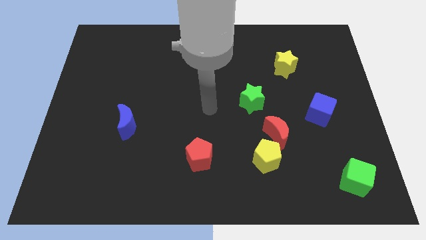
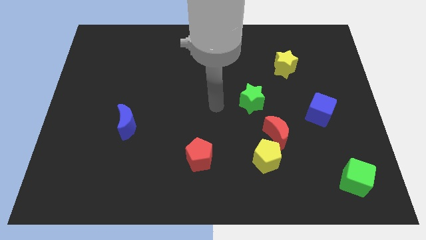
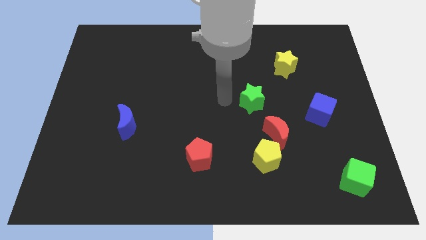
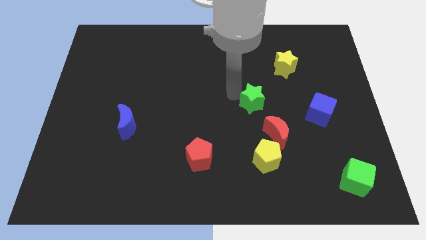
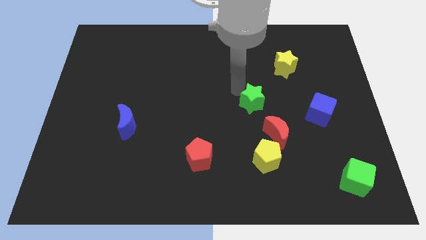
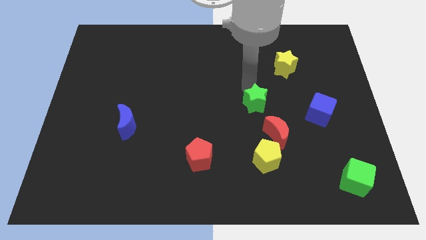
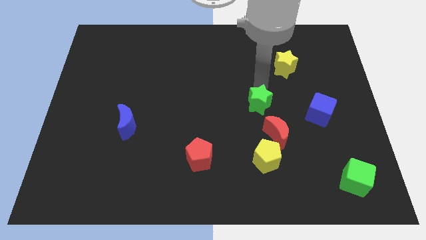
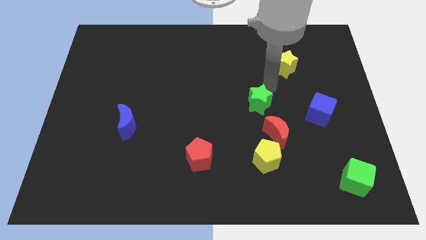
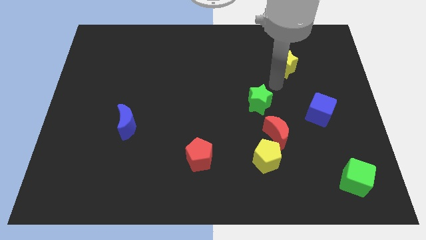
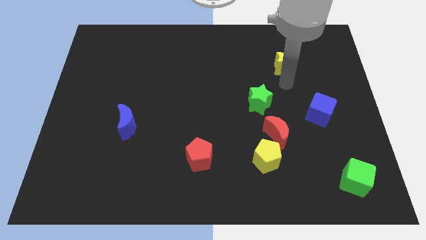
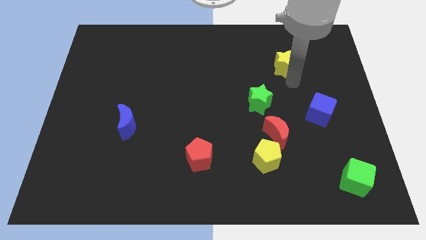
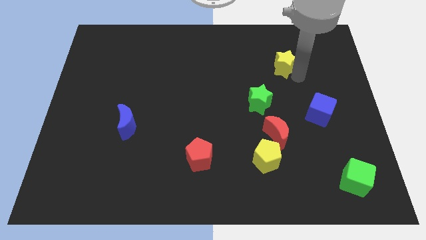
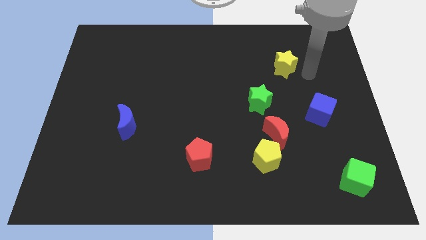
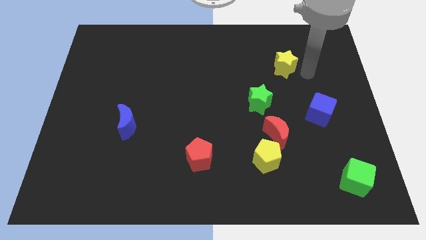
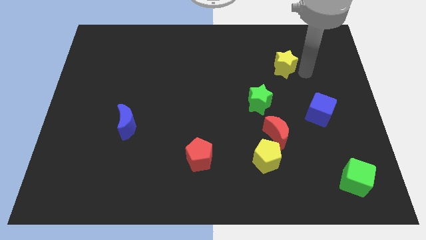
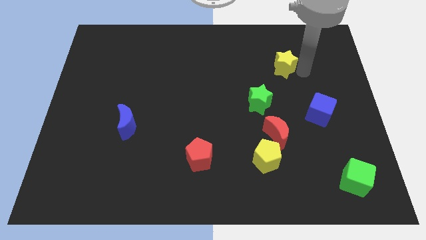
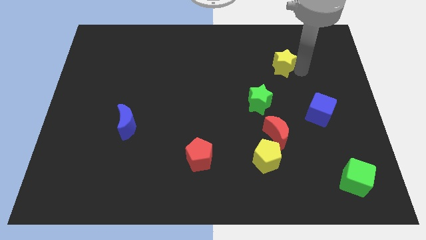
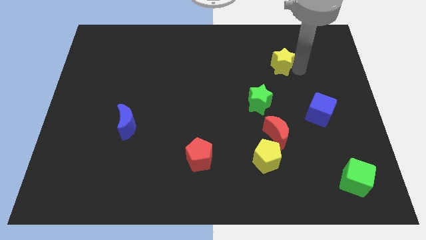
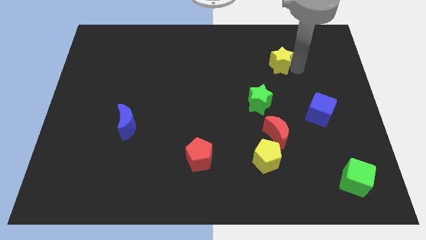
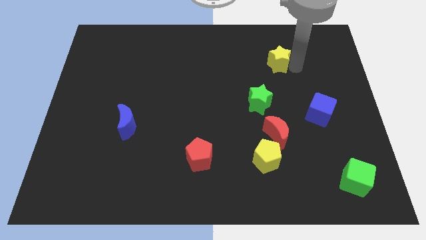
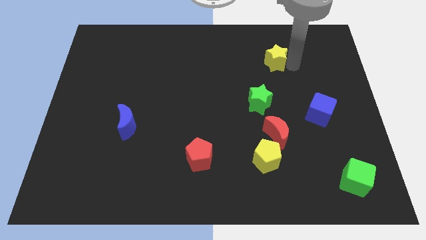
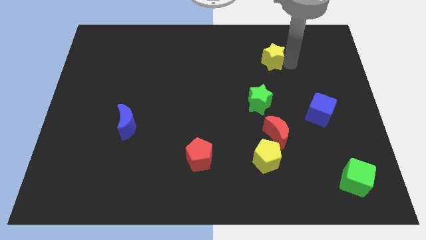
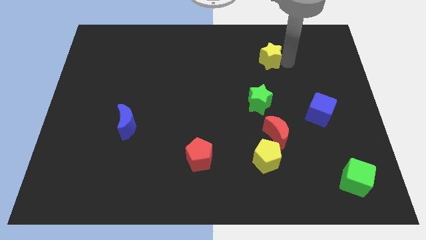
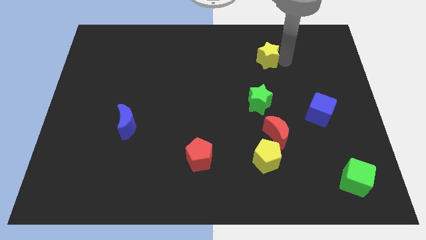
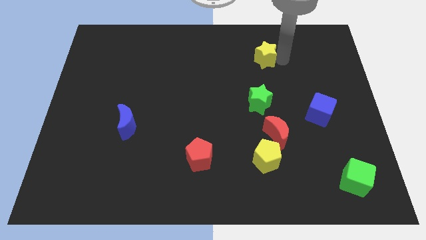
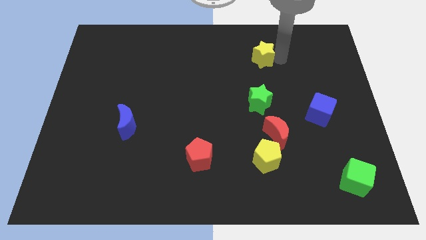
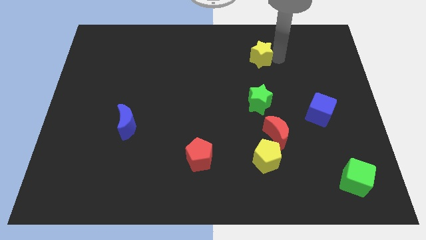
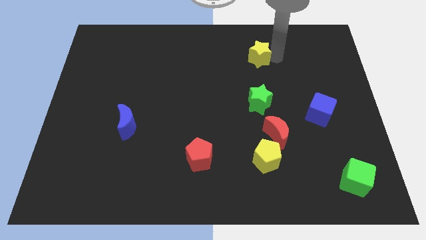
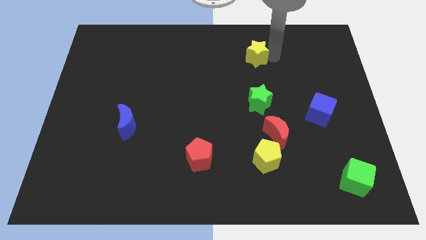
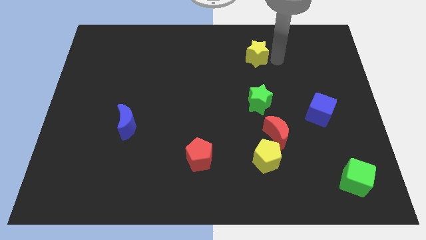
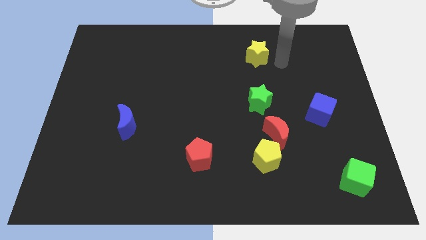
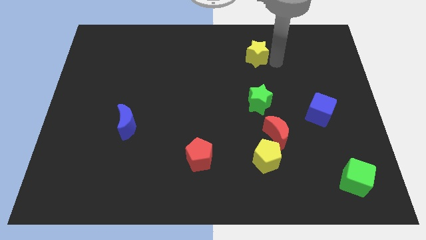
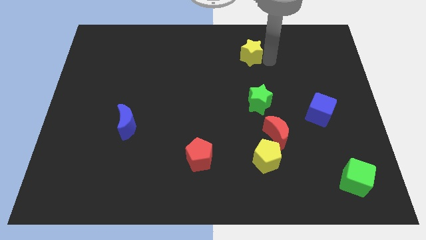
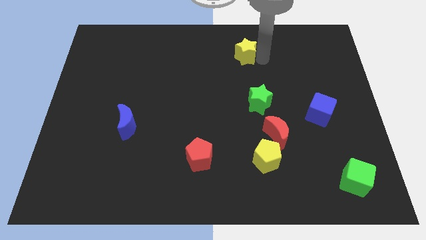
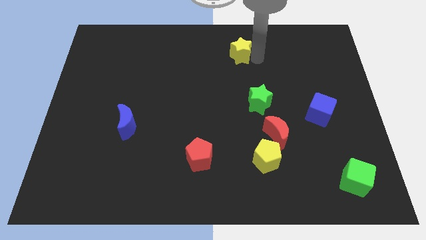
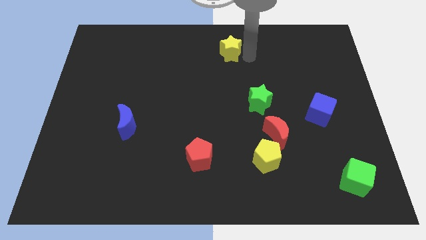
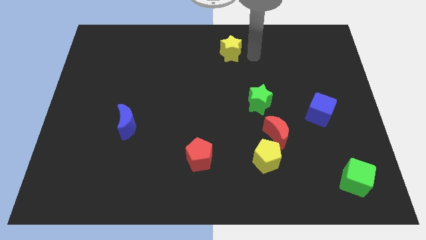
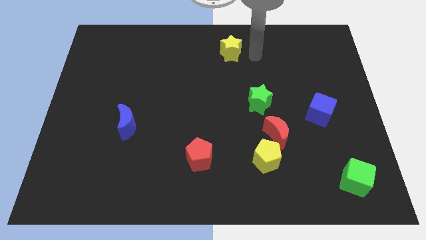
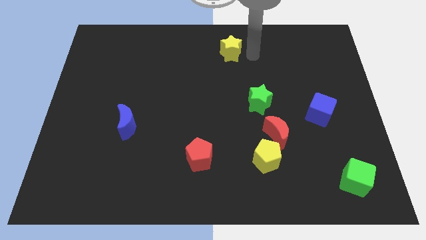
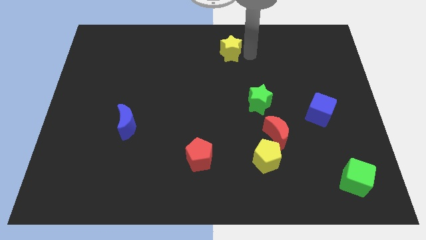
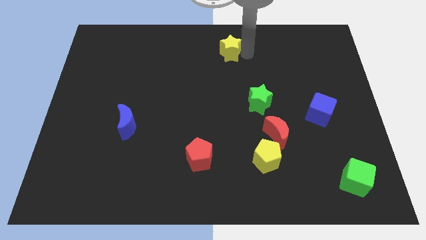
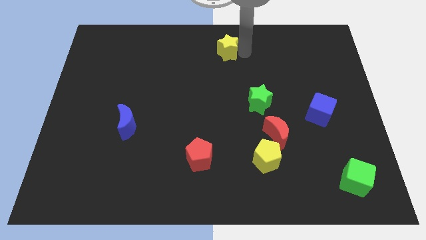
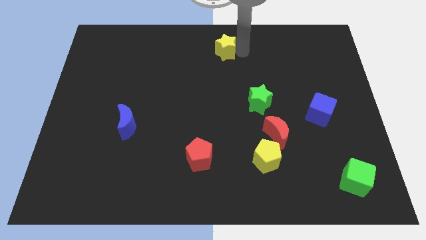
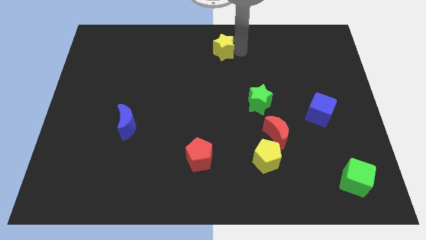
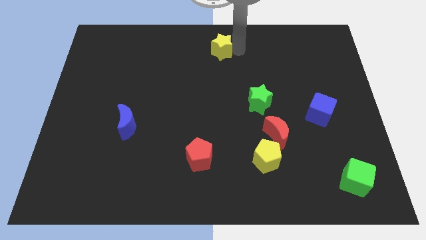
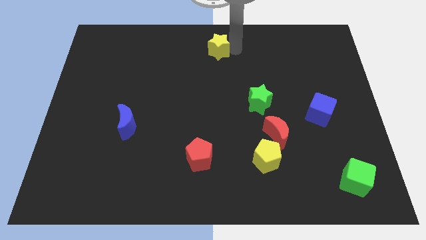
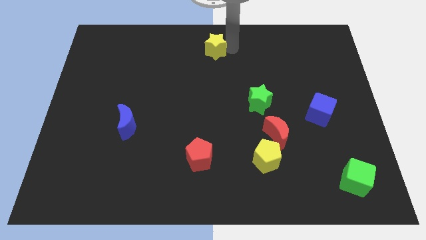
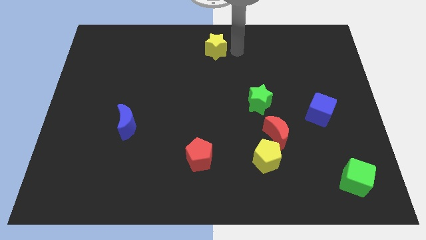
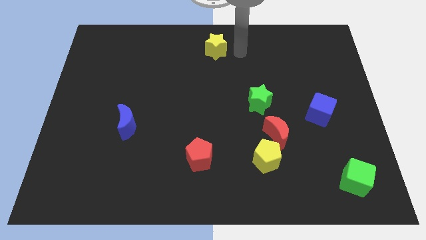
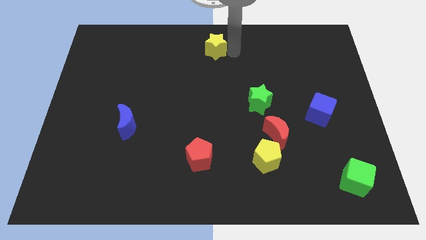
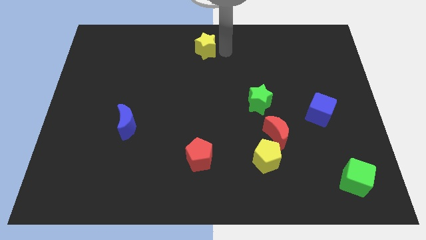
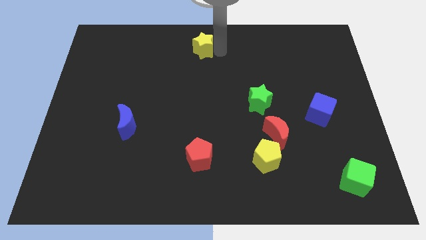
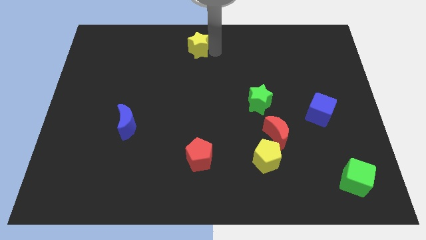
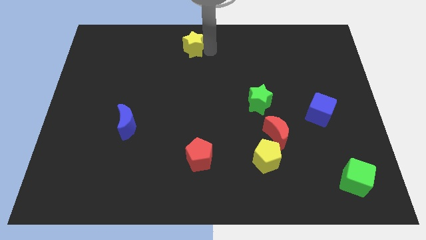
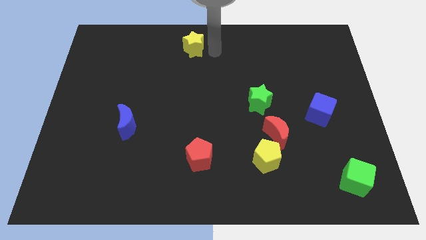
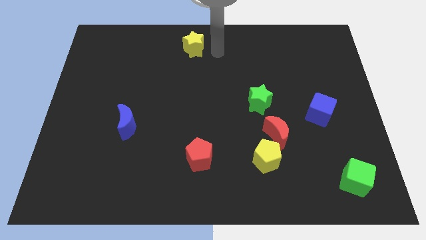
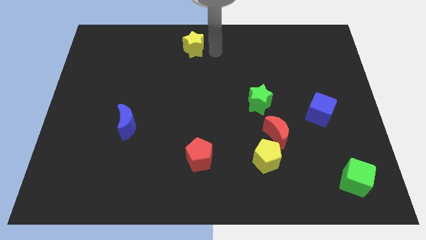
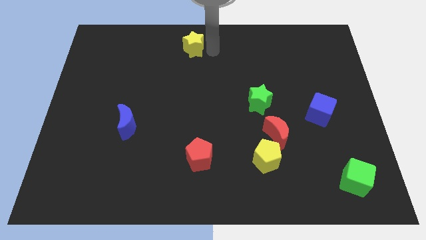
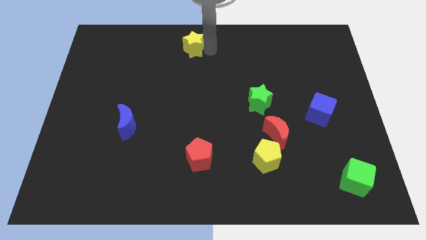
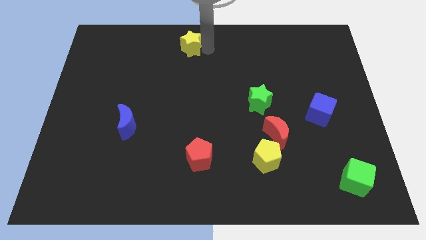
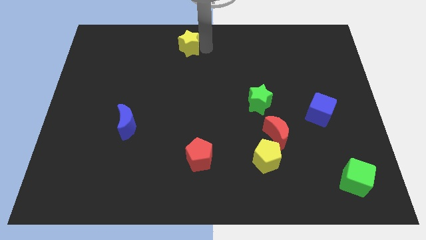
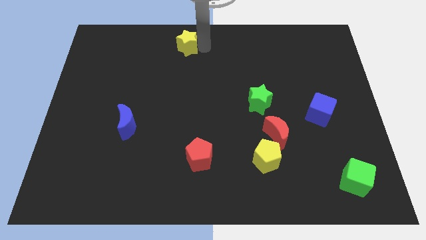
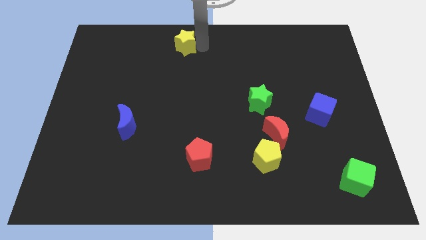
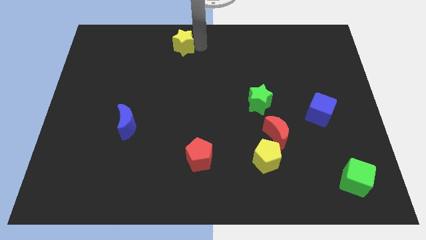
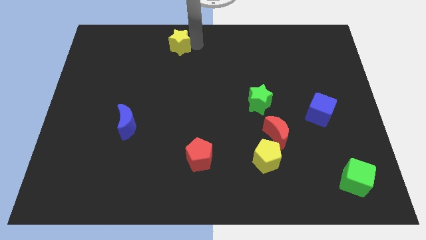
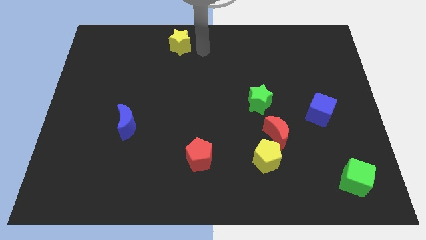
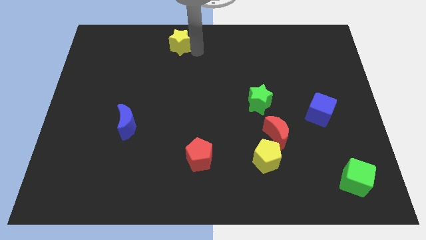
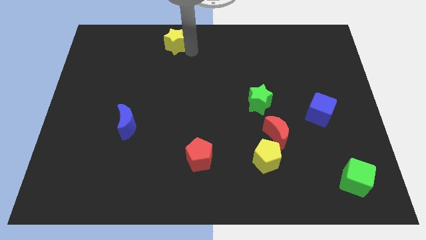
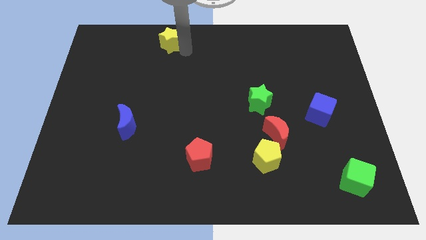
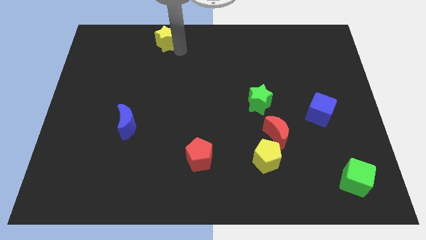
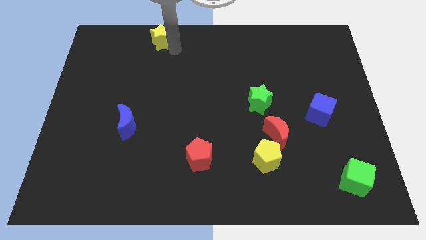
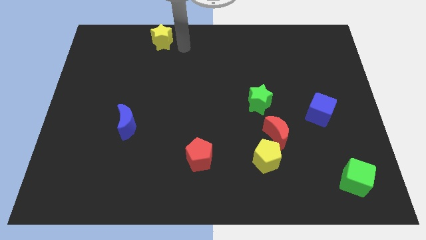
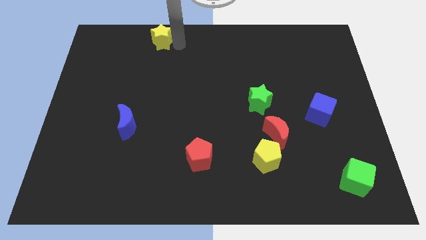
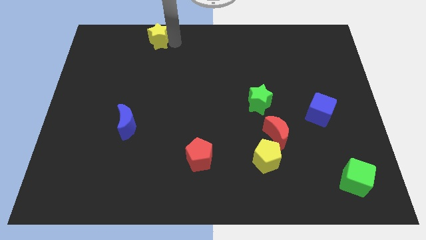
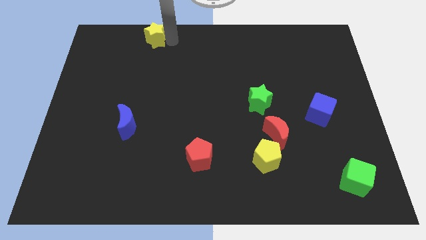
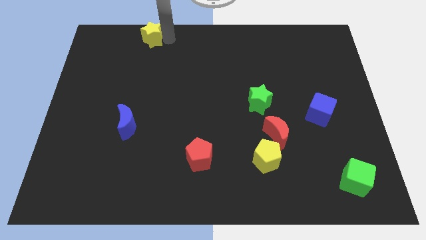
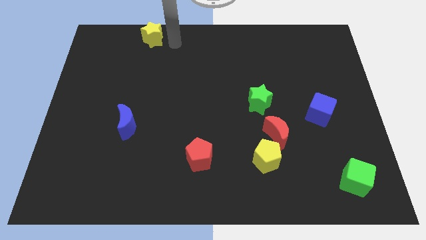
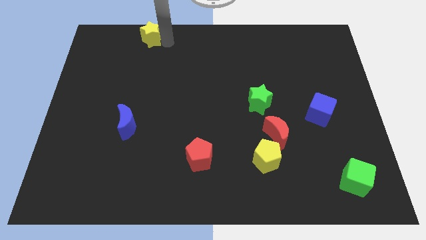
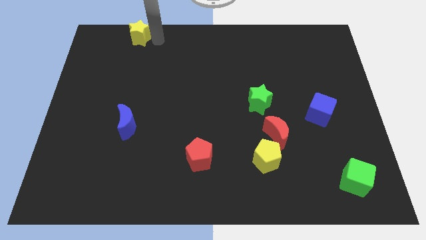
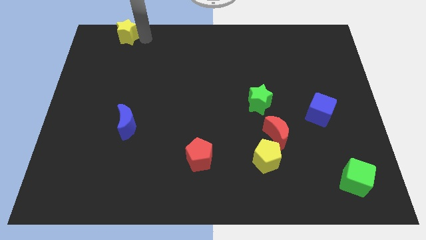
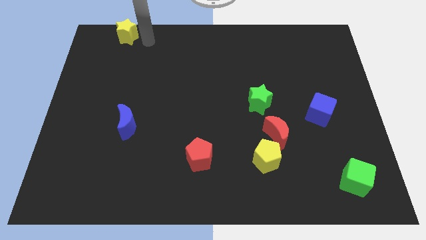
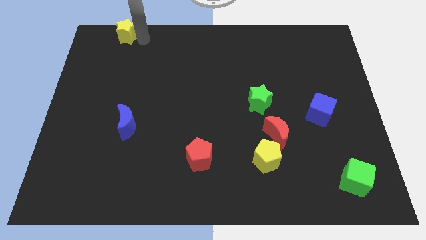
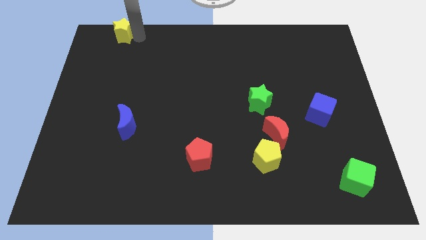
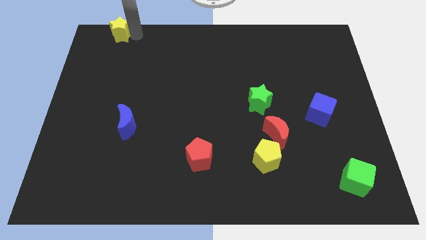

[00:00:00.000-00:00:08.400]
move the yellow star to the top left corner
